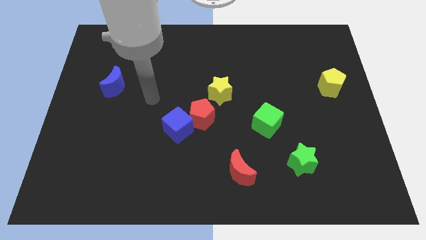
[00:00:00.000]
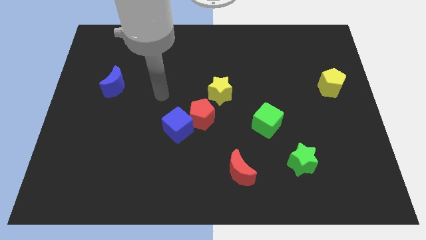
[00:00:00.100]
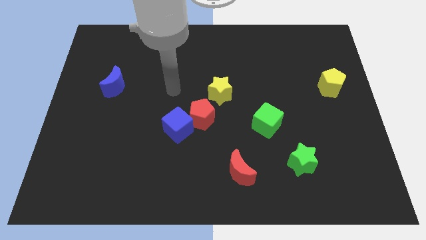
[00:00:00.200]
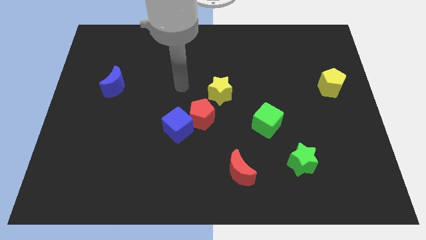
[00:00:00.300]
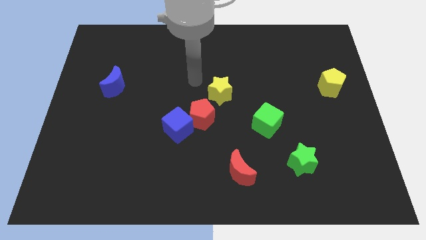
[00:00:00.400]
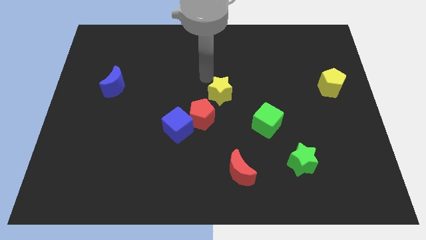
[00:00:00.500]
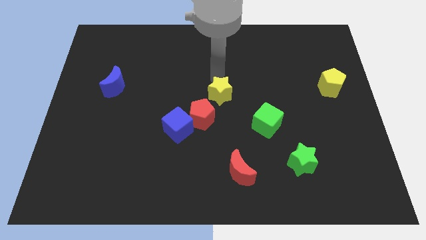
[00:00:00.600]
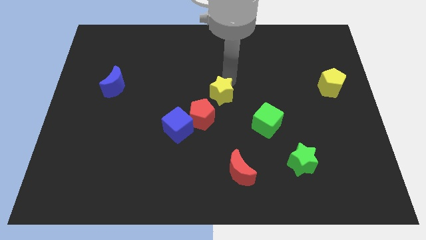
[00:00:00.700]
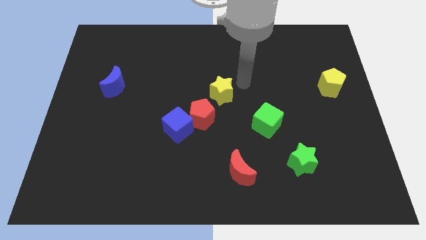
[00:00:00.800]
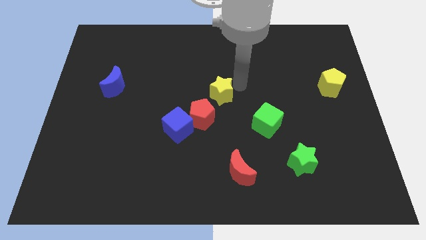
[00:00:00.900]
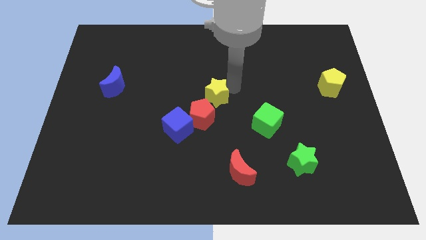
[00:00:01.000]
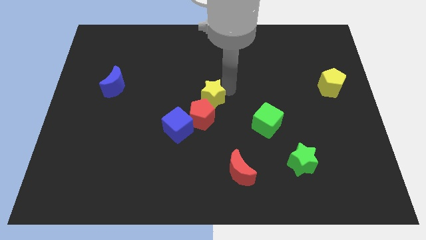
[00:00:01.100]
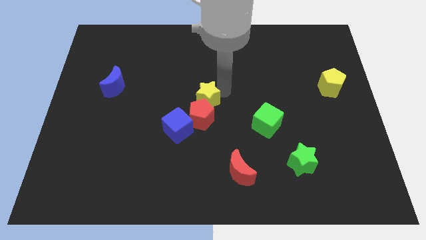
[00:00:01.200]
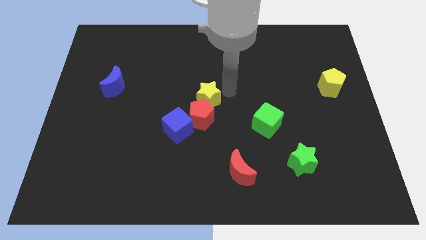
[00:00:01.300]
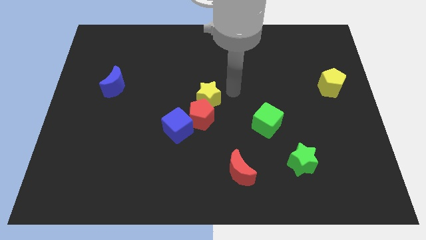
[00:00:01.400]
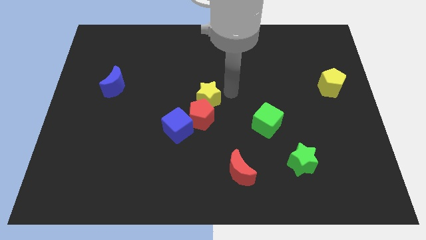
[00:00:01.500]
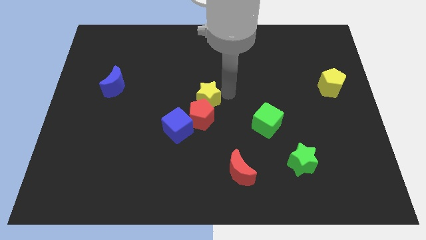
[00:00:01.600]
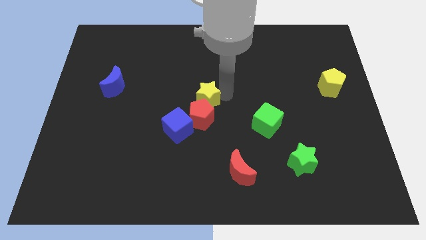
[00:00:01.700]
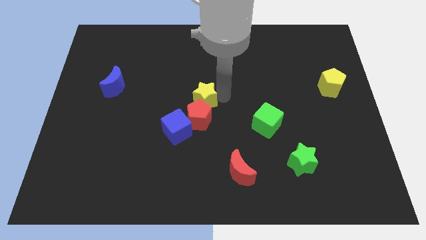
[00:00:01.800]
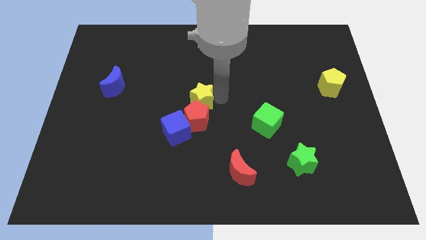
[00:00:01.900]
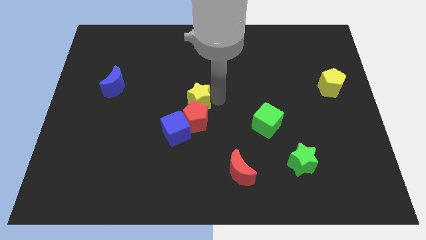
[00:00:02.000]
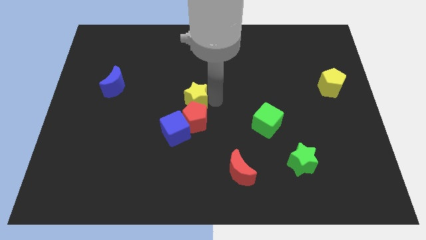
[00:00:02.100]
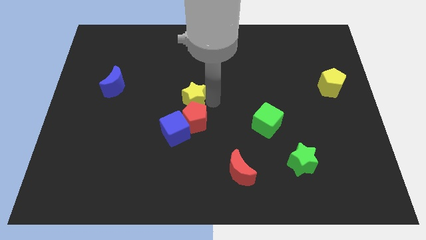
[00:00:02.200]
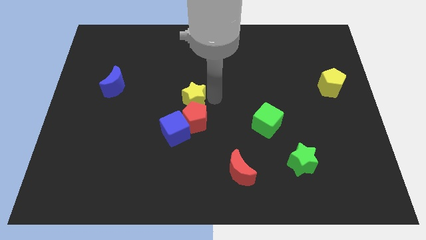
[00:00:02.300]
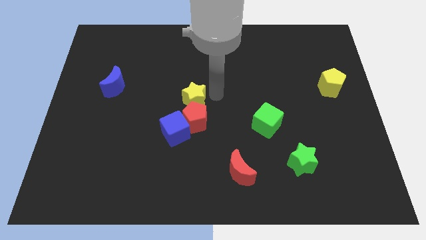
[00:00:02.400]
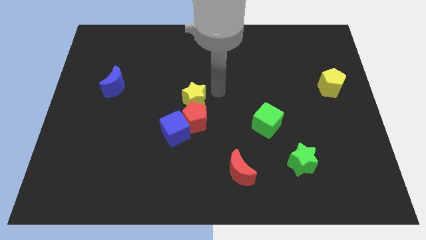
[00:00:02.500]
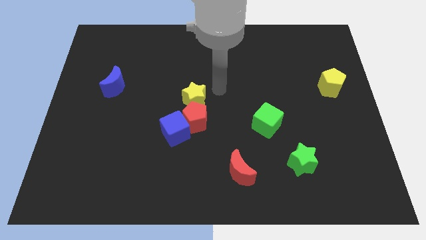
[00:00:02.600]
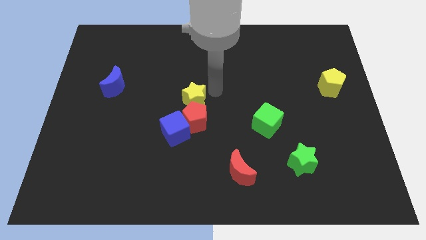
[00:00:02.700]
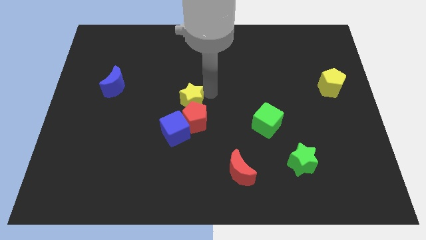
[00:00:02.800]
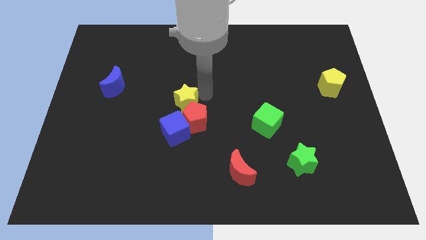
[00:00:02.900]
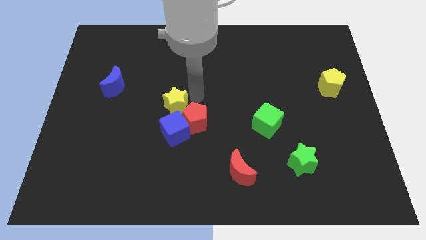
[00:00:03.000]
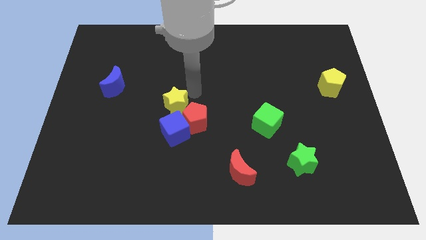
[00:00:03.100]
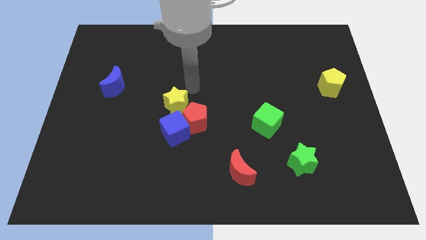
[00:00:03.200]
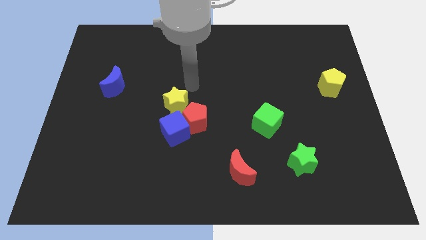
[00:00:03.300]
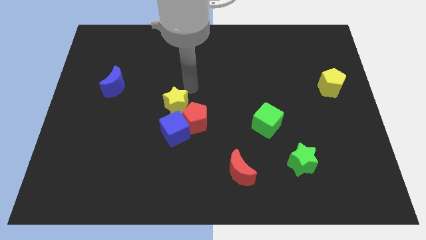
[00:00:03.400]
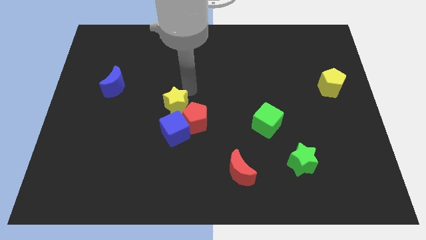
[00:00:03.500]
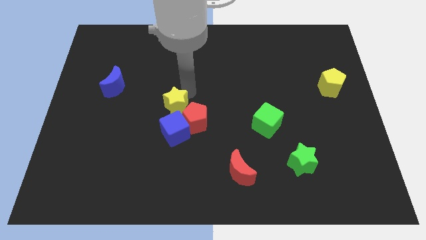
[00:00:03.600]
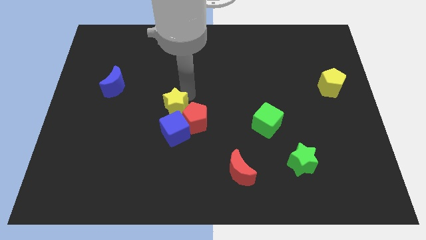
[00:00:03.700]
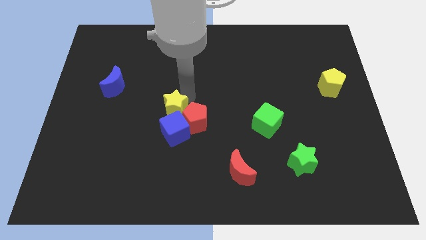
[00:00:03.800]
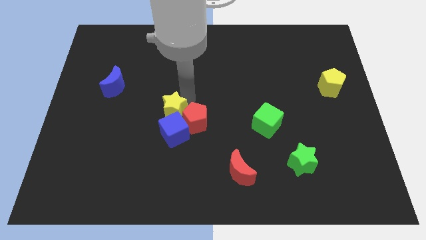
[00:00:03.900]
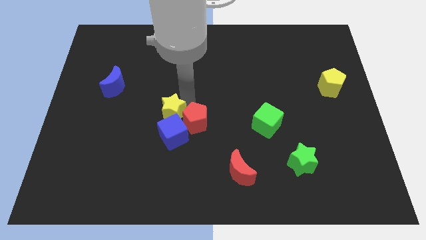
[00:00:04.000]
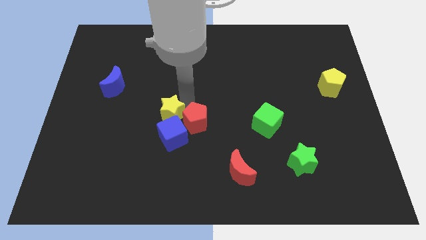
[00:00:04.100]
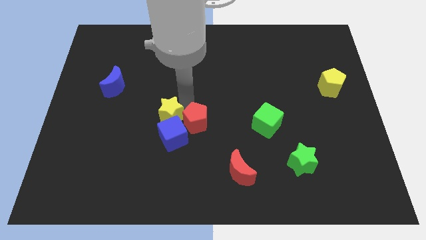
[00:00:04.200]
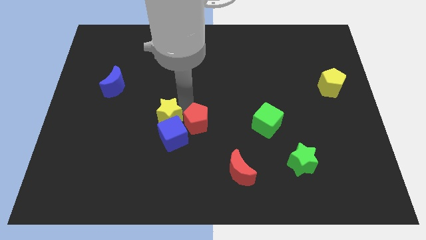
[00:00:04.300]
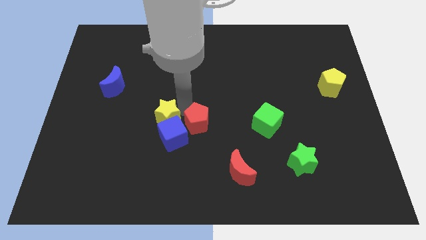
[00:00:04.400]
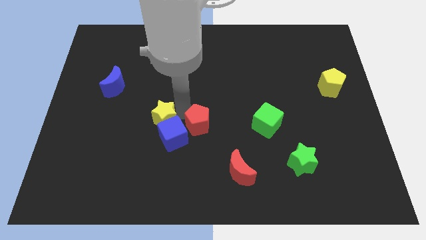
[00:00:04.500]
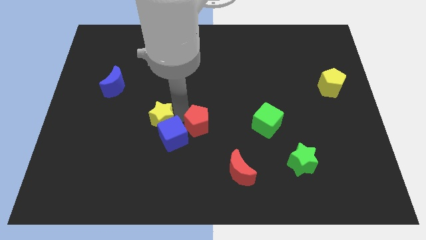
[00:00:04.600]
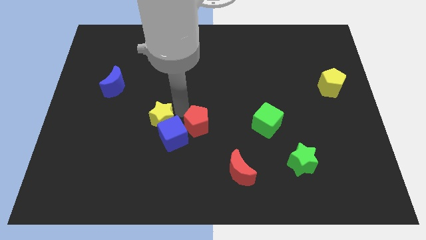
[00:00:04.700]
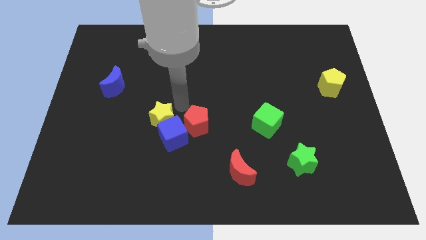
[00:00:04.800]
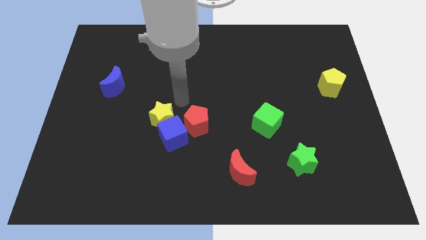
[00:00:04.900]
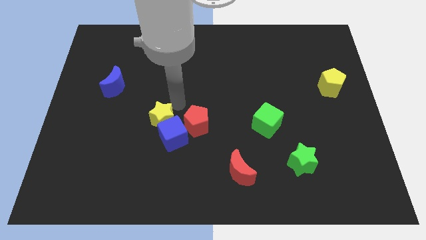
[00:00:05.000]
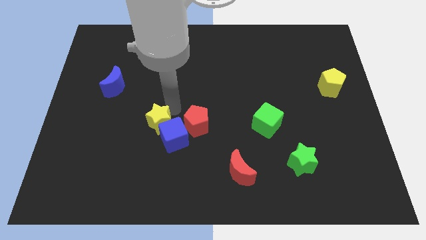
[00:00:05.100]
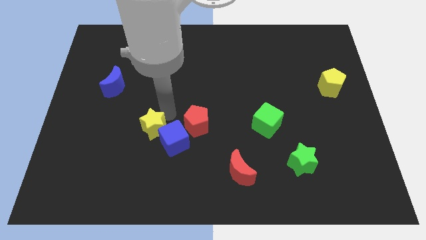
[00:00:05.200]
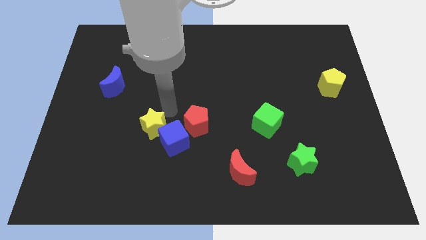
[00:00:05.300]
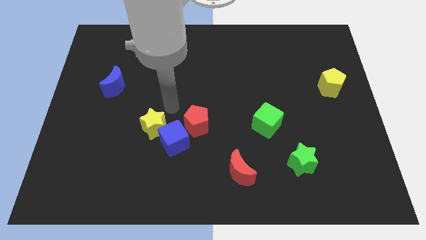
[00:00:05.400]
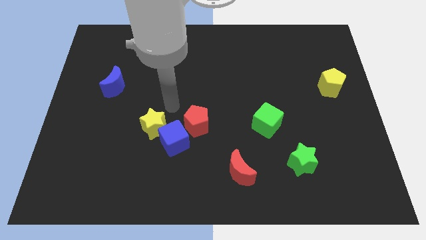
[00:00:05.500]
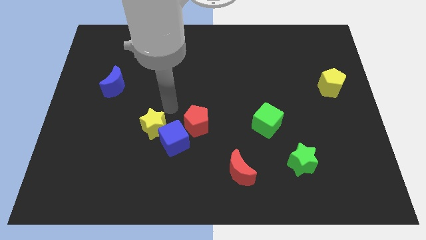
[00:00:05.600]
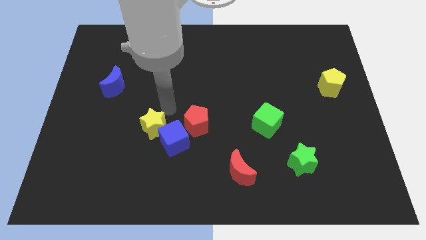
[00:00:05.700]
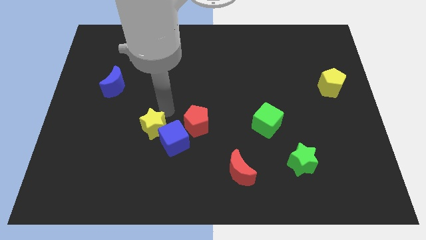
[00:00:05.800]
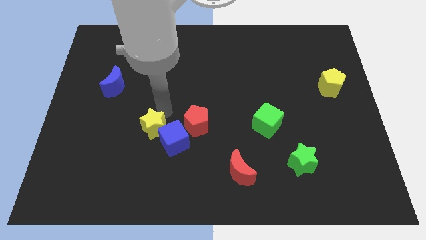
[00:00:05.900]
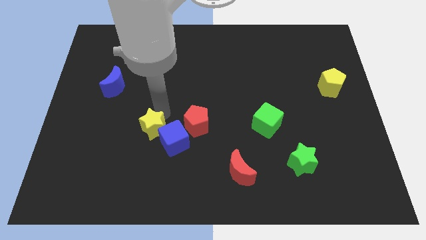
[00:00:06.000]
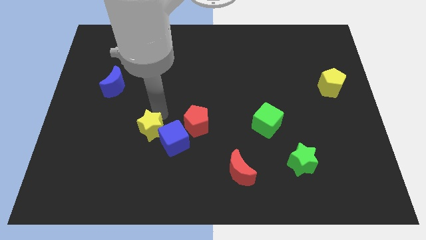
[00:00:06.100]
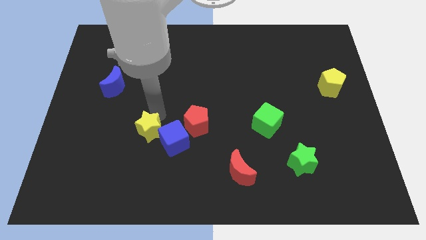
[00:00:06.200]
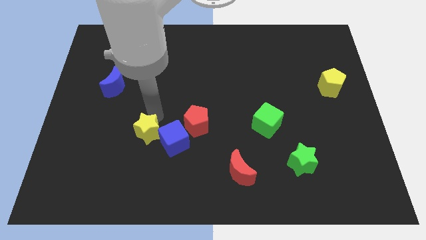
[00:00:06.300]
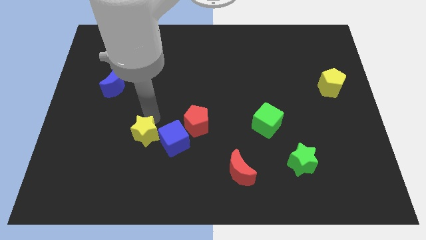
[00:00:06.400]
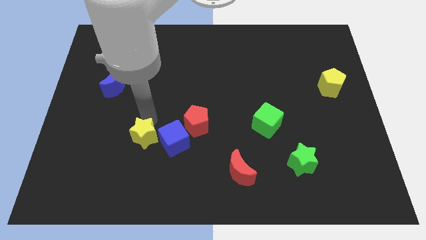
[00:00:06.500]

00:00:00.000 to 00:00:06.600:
move the yellow star diagonally downwards and to the left

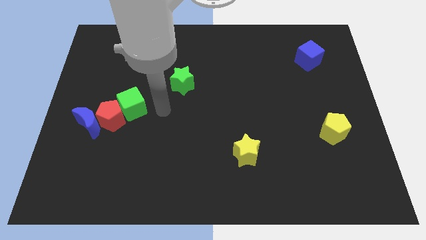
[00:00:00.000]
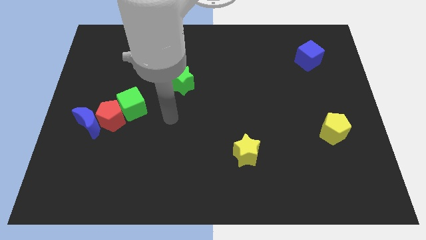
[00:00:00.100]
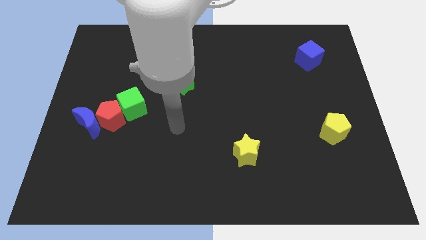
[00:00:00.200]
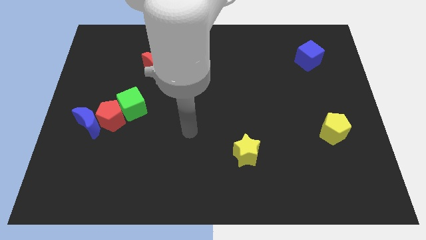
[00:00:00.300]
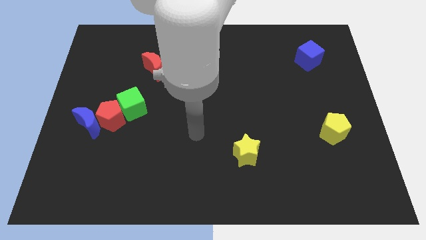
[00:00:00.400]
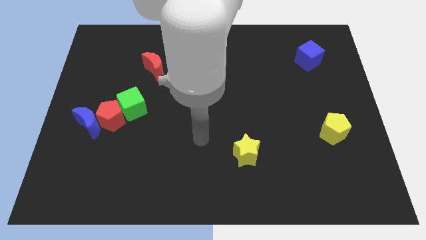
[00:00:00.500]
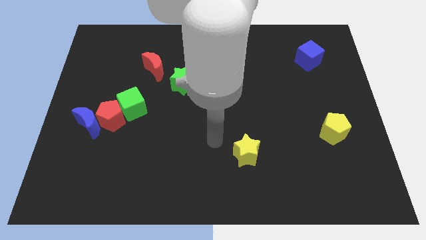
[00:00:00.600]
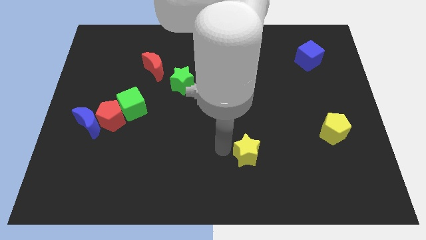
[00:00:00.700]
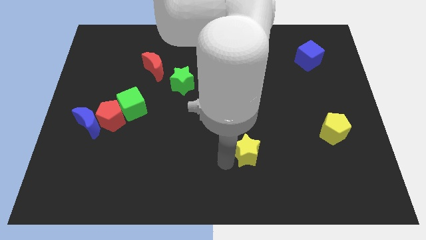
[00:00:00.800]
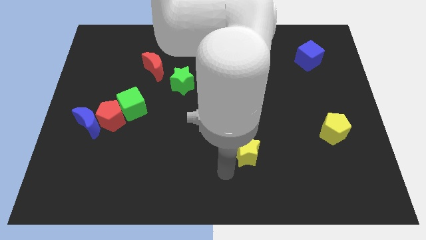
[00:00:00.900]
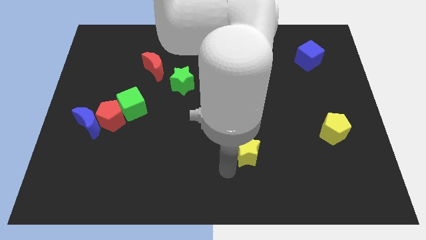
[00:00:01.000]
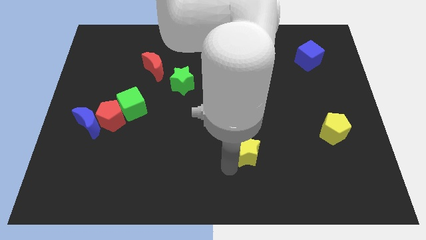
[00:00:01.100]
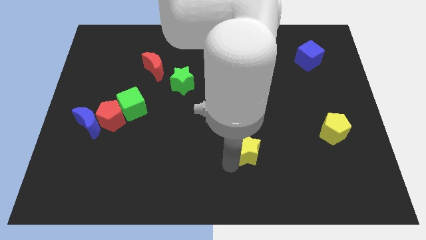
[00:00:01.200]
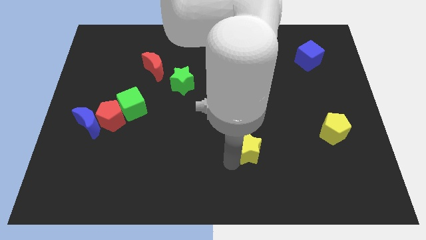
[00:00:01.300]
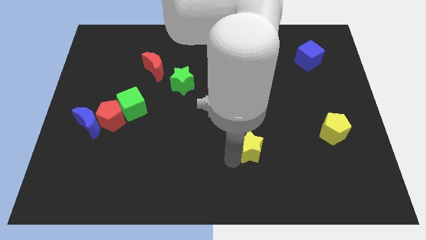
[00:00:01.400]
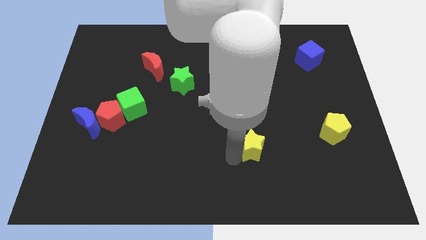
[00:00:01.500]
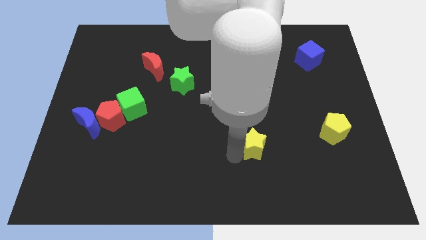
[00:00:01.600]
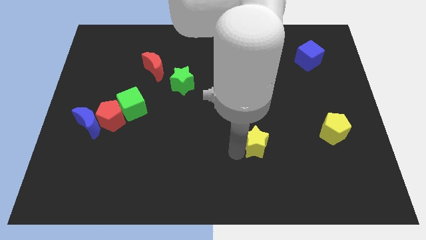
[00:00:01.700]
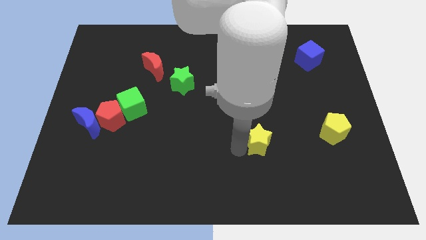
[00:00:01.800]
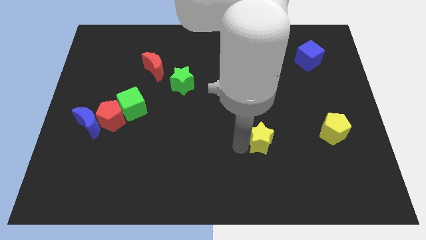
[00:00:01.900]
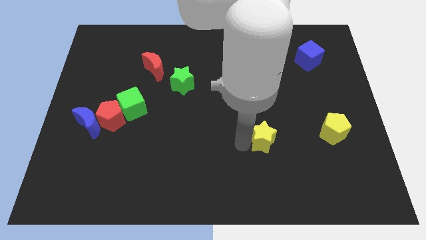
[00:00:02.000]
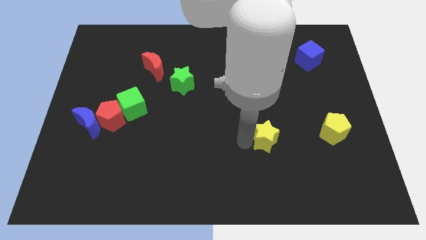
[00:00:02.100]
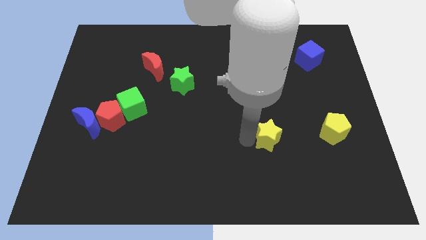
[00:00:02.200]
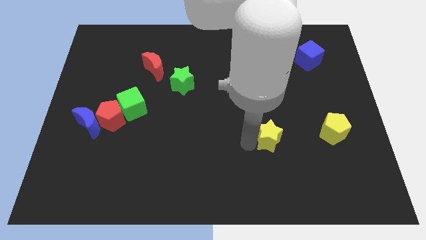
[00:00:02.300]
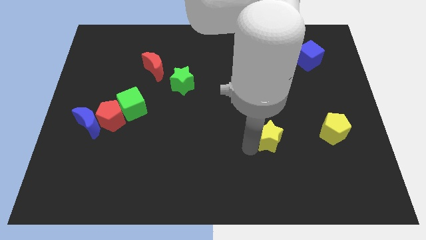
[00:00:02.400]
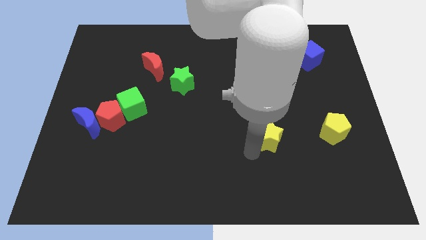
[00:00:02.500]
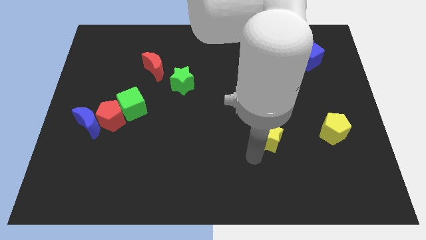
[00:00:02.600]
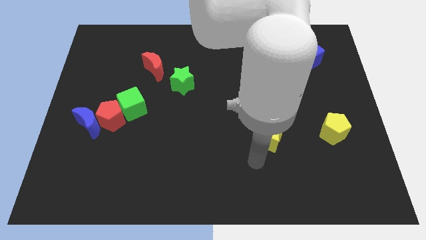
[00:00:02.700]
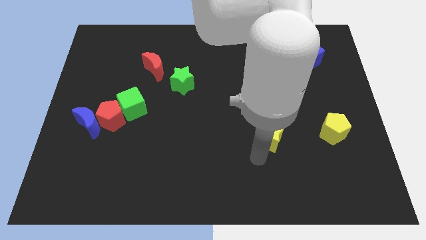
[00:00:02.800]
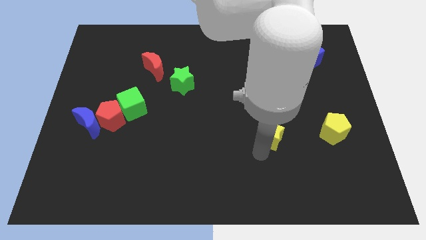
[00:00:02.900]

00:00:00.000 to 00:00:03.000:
slightly move the yellow star up and right diagonally
